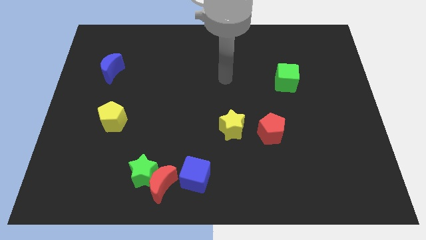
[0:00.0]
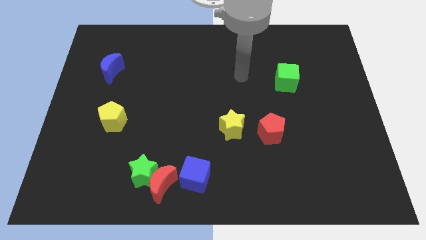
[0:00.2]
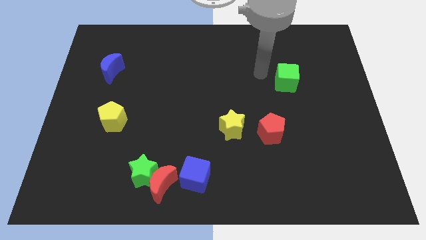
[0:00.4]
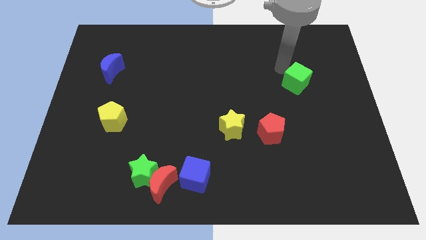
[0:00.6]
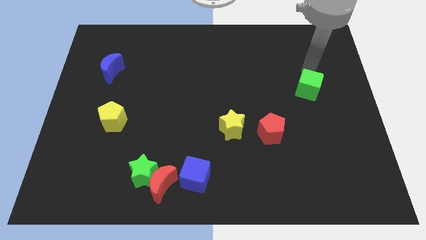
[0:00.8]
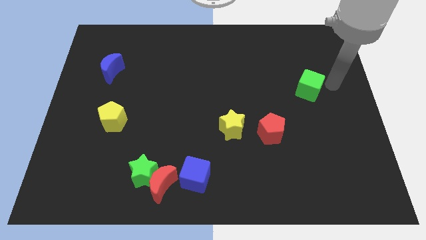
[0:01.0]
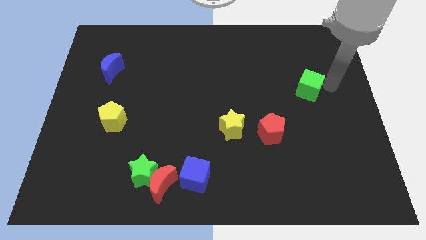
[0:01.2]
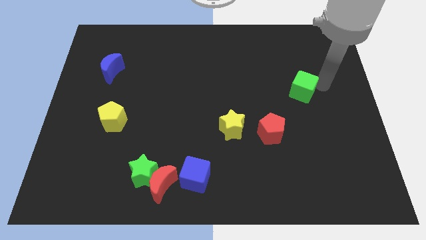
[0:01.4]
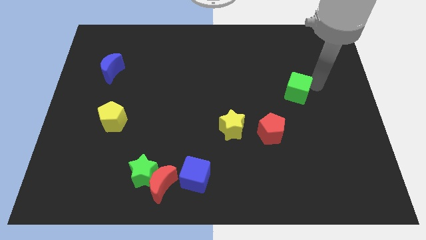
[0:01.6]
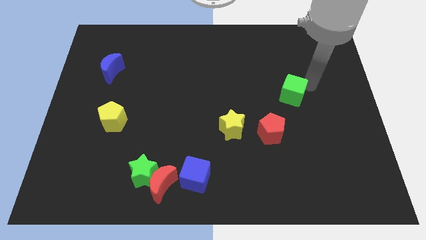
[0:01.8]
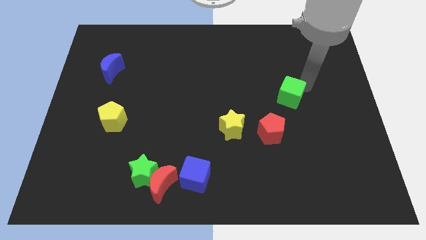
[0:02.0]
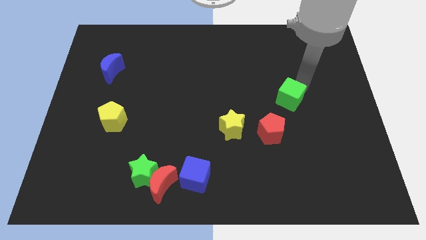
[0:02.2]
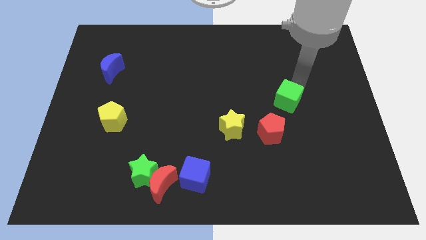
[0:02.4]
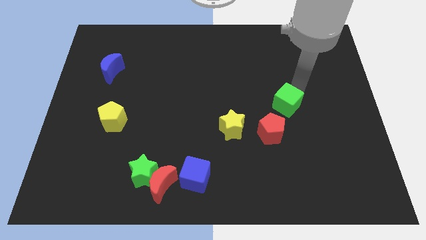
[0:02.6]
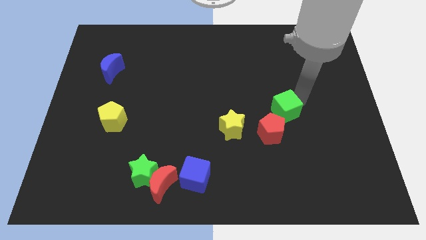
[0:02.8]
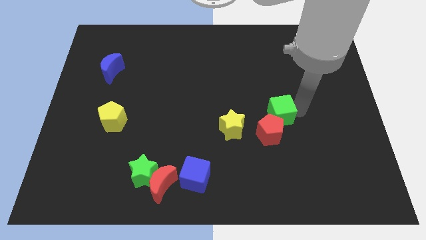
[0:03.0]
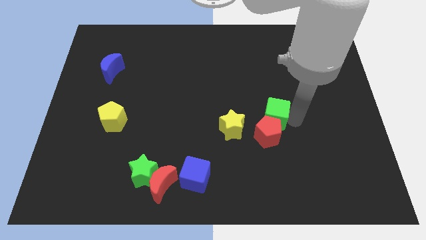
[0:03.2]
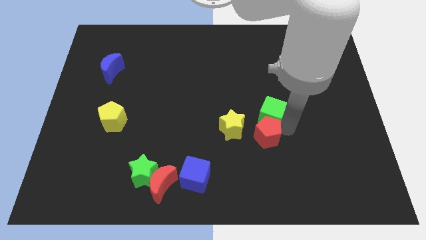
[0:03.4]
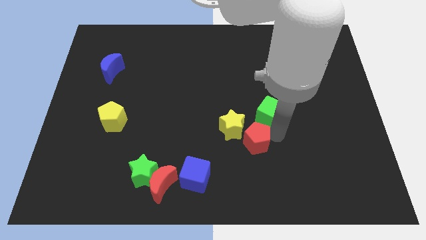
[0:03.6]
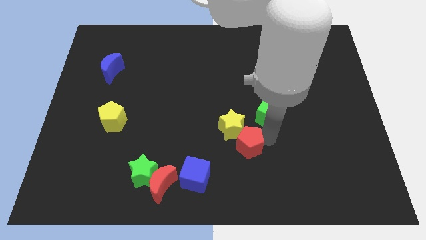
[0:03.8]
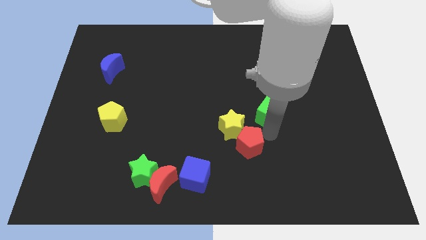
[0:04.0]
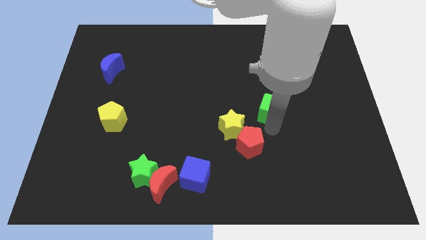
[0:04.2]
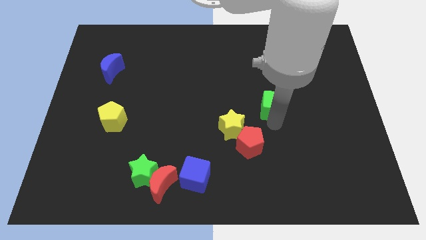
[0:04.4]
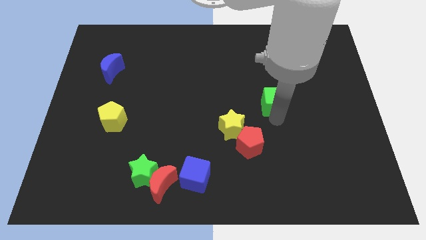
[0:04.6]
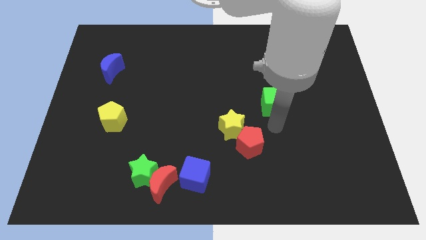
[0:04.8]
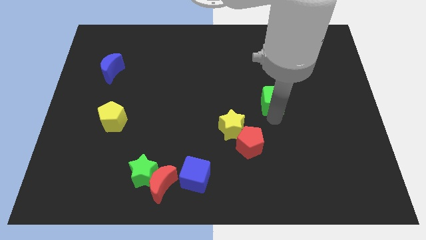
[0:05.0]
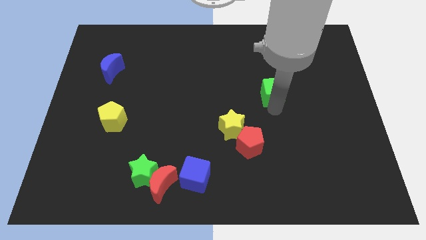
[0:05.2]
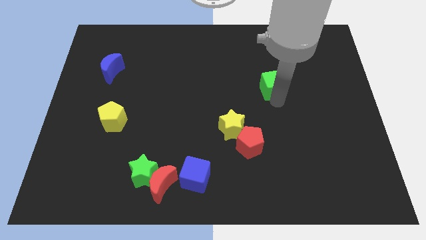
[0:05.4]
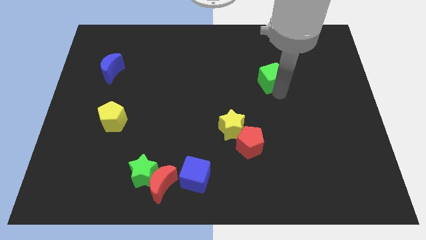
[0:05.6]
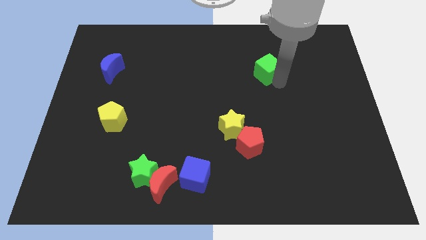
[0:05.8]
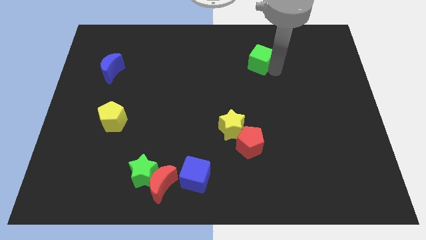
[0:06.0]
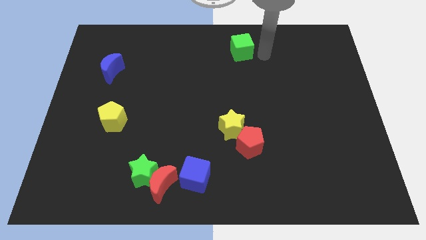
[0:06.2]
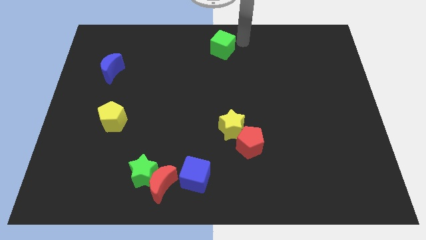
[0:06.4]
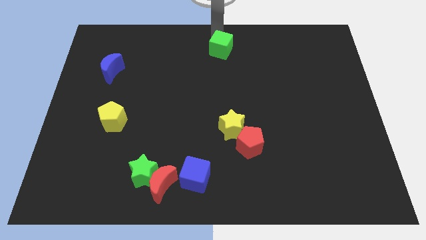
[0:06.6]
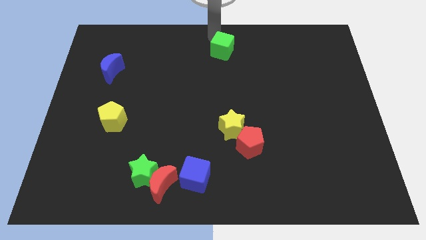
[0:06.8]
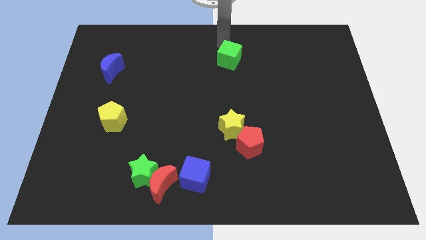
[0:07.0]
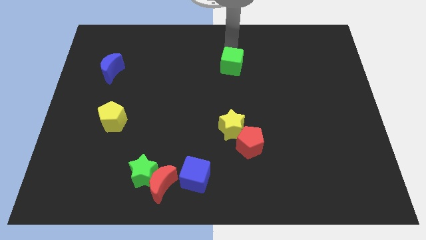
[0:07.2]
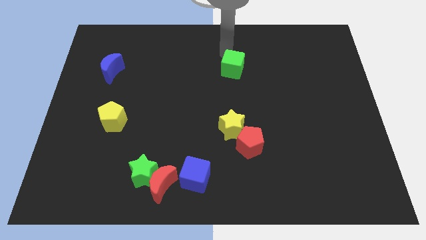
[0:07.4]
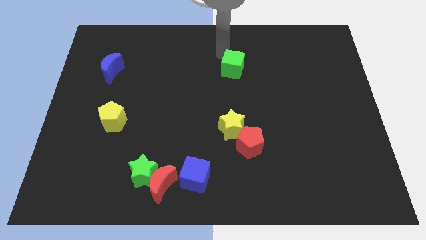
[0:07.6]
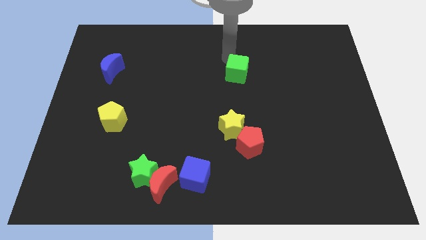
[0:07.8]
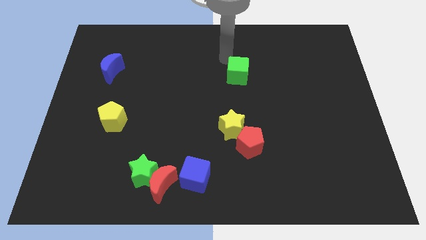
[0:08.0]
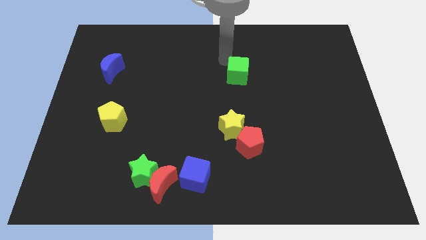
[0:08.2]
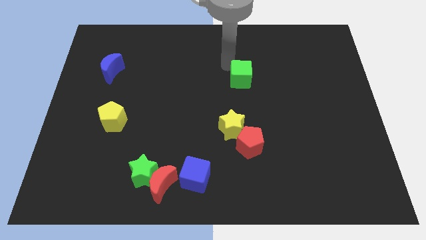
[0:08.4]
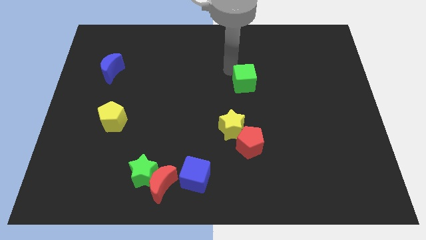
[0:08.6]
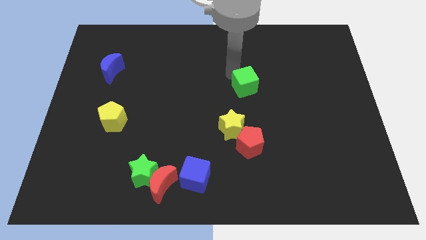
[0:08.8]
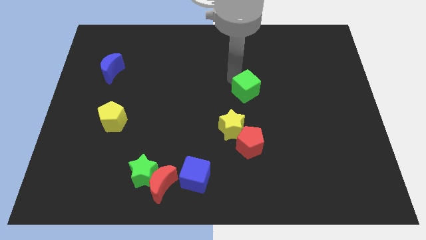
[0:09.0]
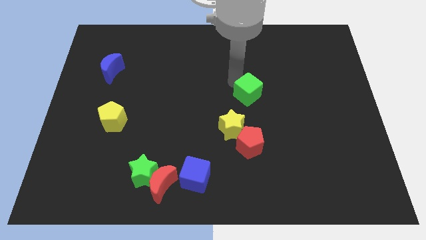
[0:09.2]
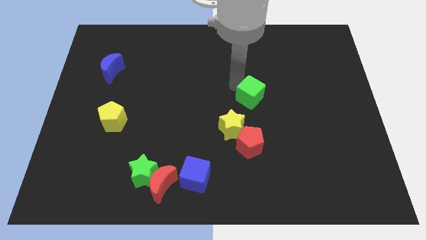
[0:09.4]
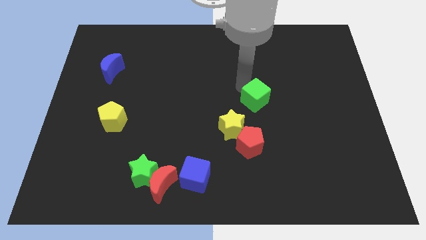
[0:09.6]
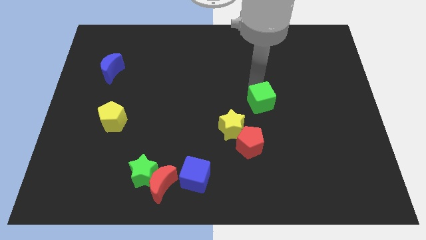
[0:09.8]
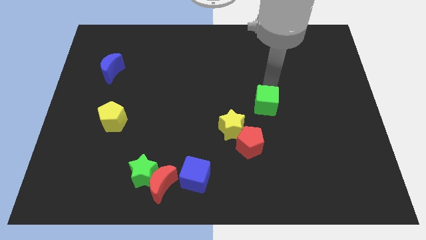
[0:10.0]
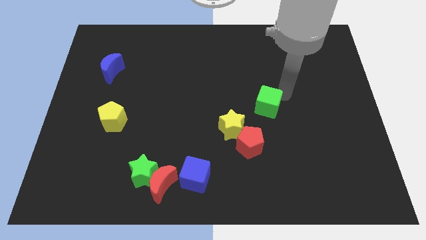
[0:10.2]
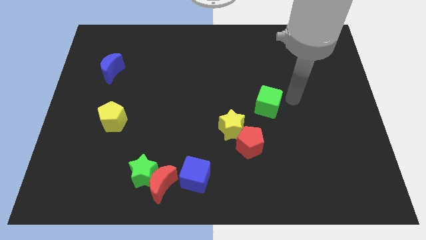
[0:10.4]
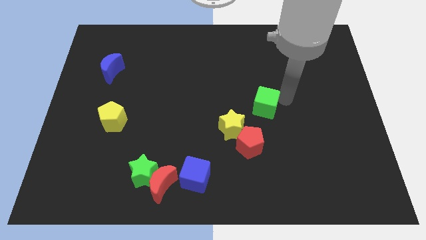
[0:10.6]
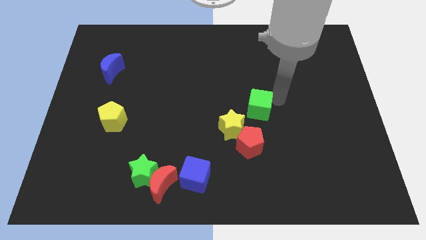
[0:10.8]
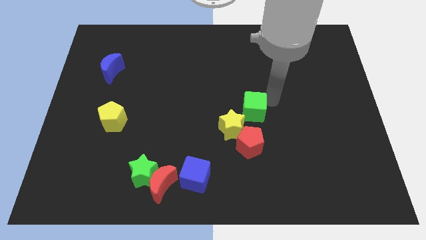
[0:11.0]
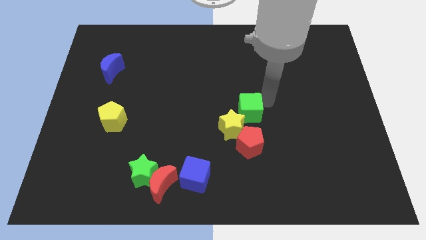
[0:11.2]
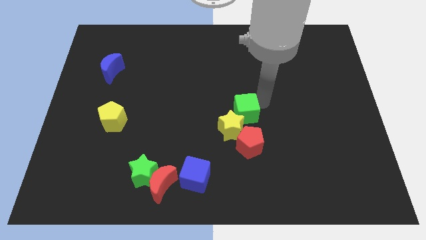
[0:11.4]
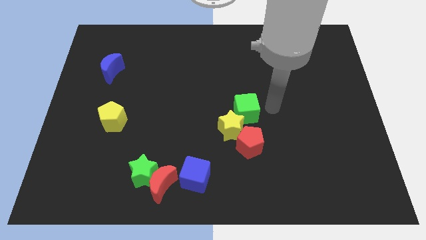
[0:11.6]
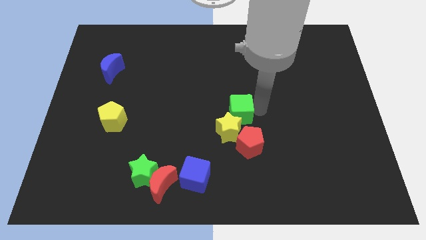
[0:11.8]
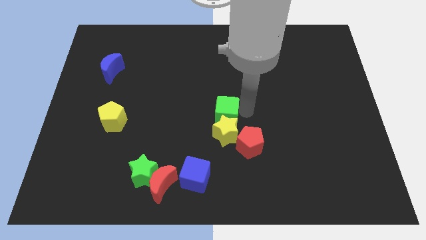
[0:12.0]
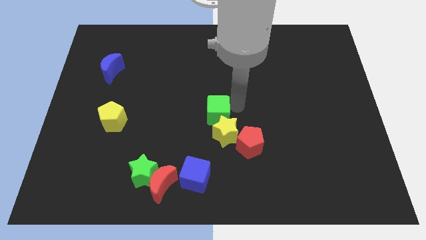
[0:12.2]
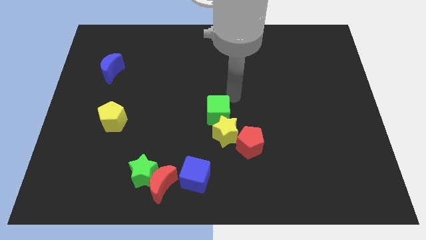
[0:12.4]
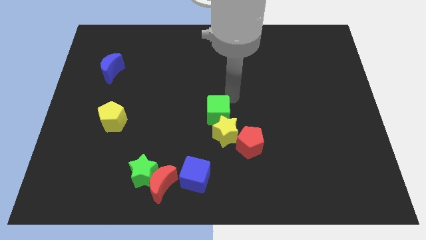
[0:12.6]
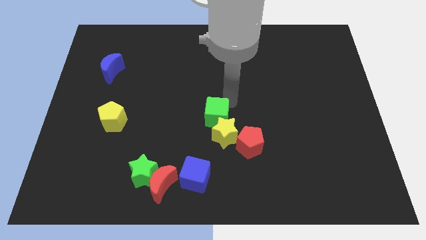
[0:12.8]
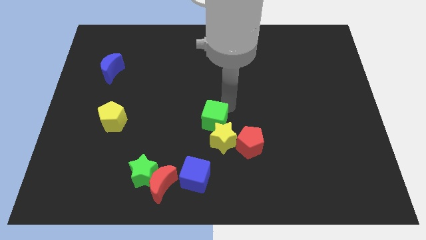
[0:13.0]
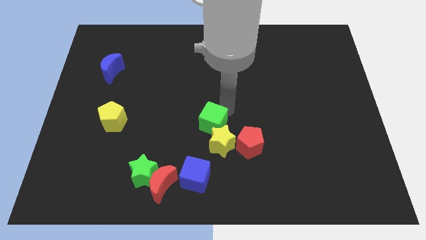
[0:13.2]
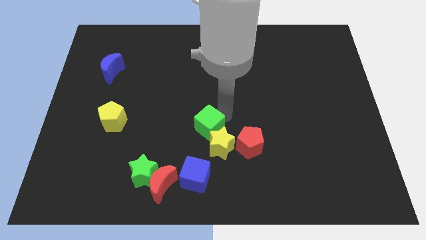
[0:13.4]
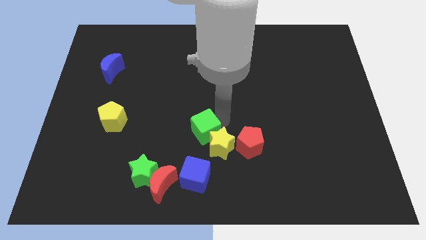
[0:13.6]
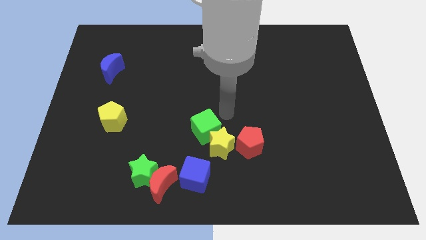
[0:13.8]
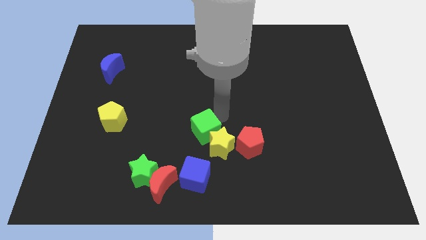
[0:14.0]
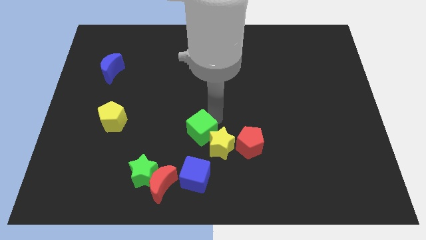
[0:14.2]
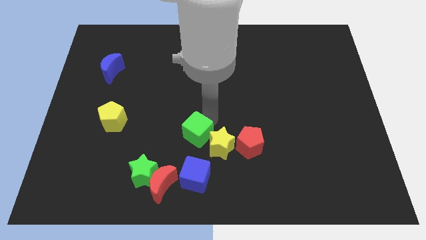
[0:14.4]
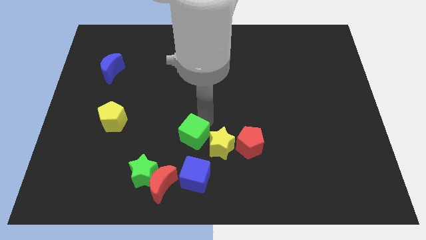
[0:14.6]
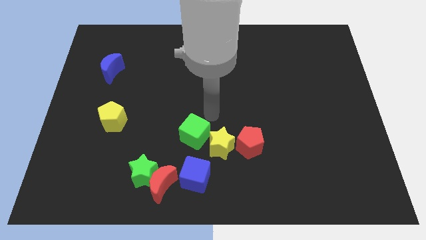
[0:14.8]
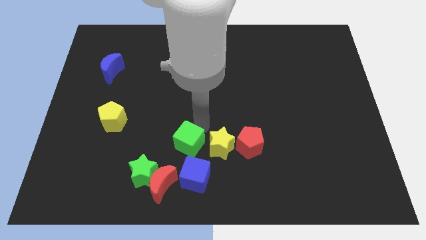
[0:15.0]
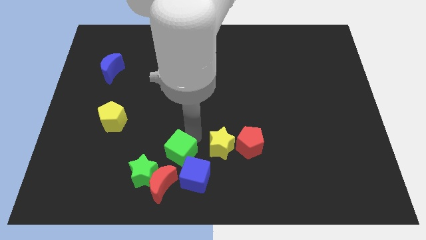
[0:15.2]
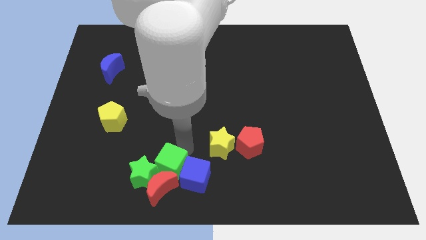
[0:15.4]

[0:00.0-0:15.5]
push the green cube towards the green star
